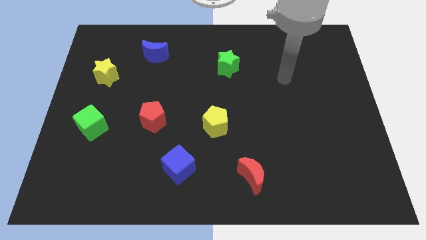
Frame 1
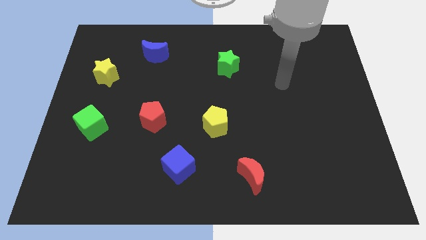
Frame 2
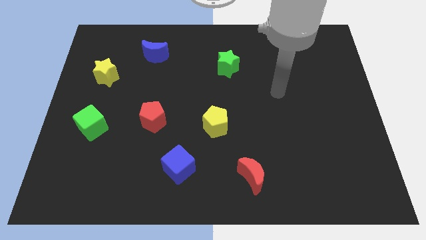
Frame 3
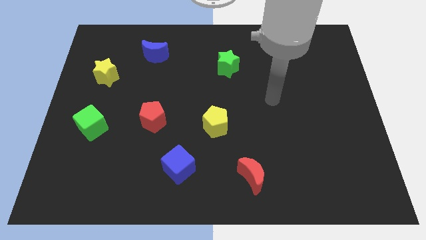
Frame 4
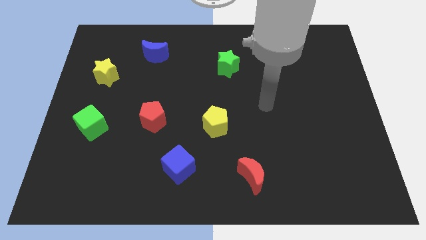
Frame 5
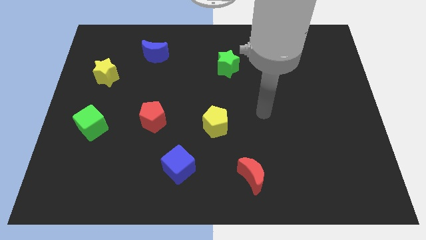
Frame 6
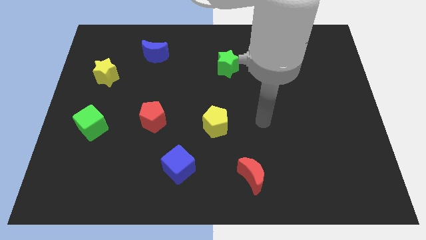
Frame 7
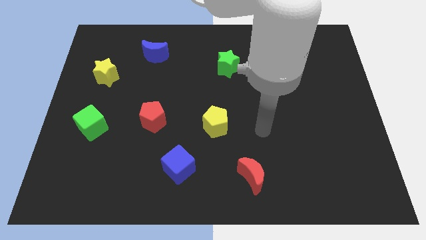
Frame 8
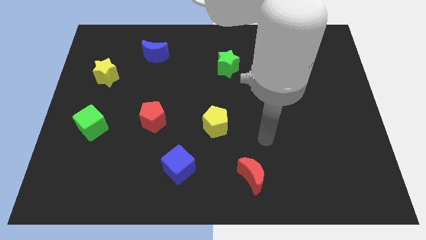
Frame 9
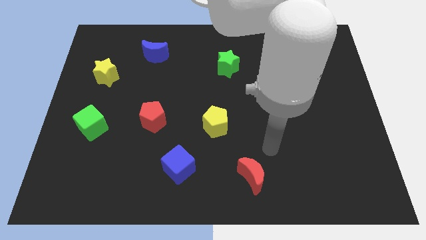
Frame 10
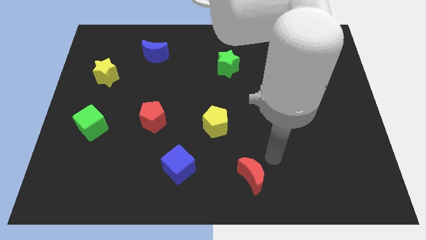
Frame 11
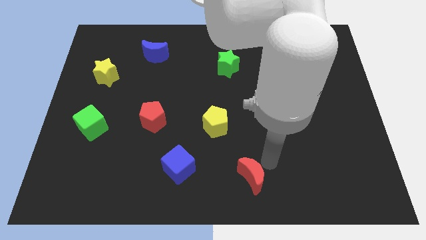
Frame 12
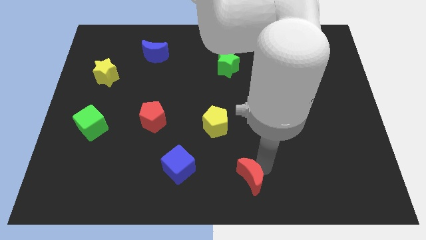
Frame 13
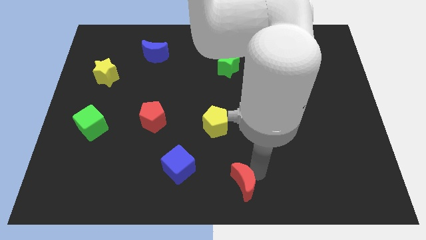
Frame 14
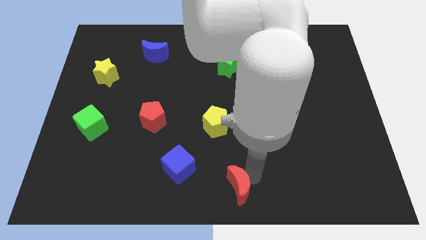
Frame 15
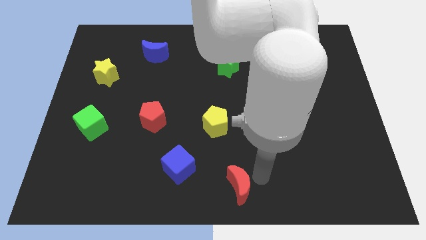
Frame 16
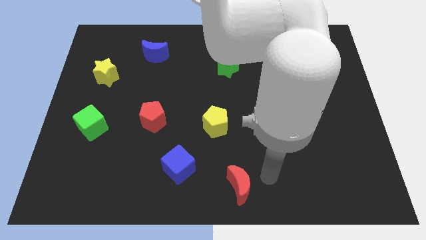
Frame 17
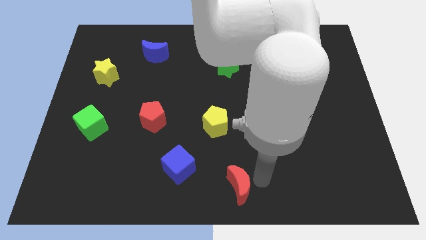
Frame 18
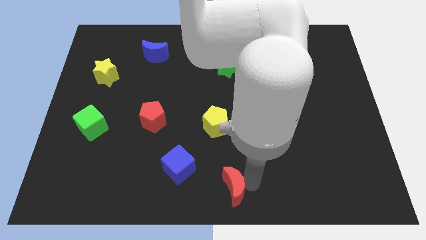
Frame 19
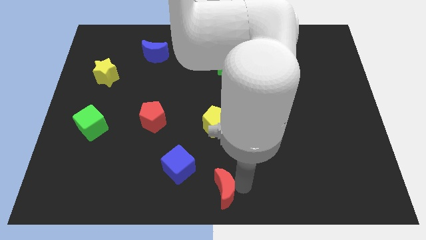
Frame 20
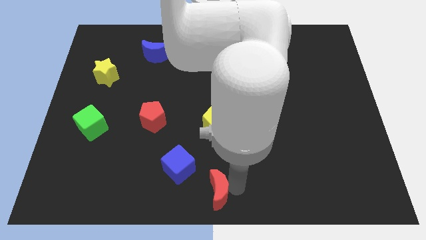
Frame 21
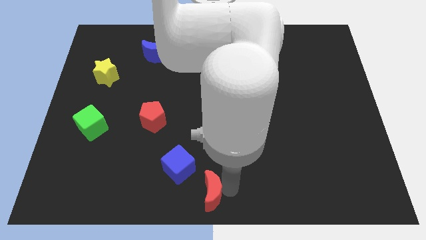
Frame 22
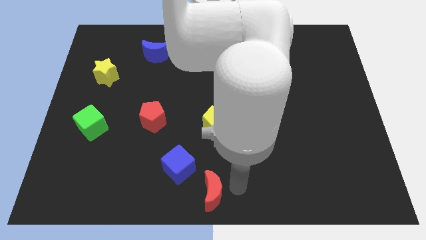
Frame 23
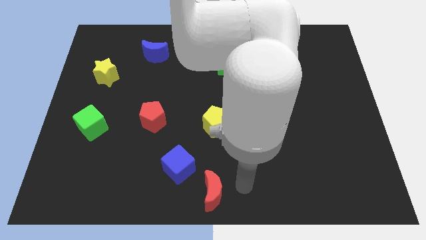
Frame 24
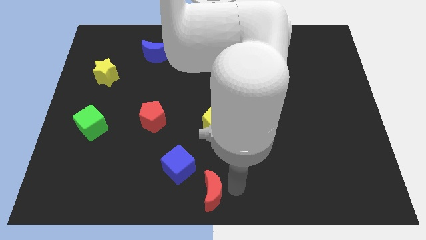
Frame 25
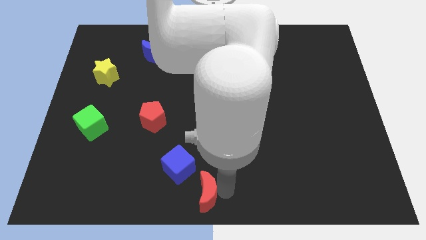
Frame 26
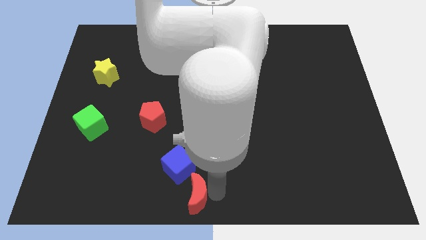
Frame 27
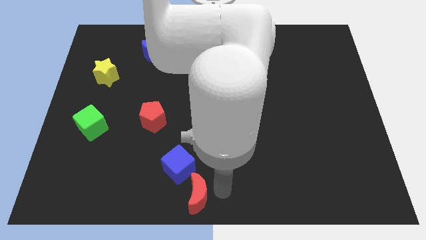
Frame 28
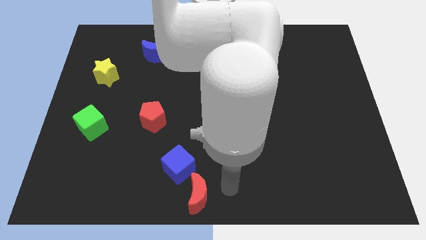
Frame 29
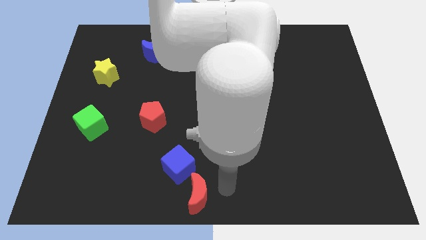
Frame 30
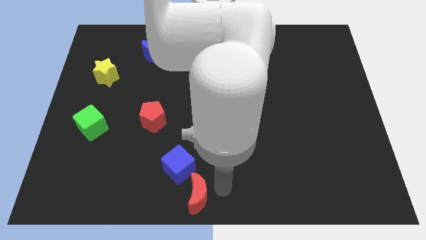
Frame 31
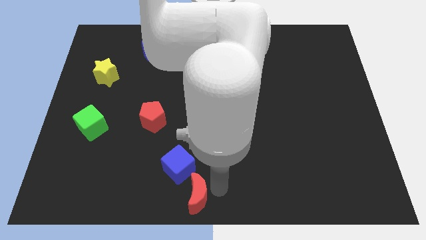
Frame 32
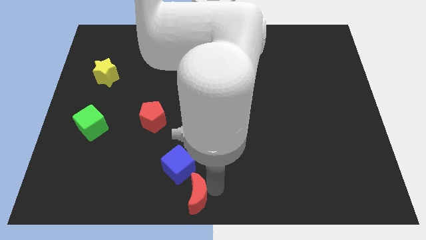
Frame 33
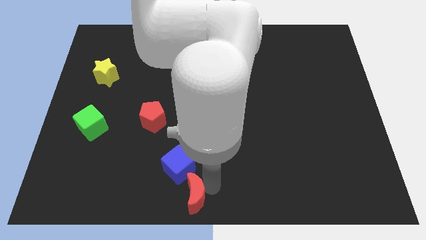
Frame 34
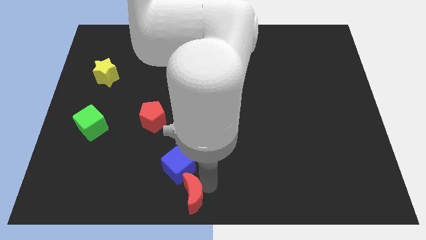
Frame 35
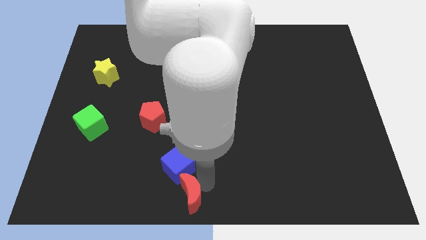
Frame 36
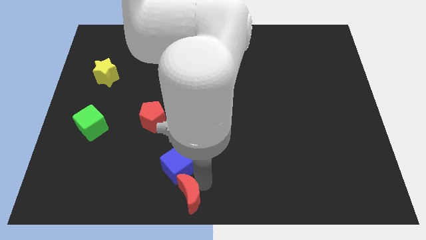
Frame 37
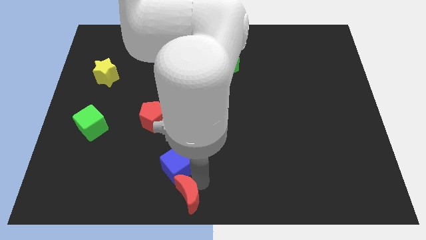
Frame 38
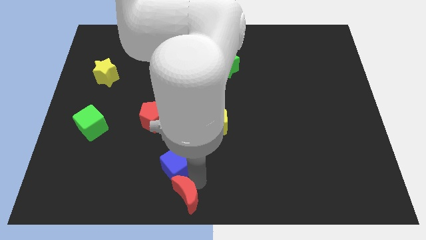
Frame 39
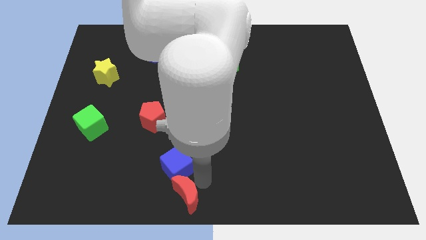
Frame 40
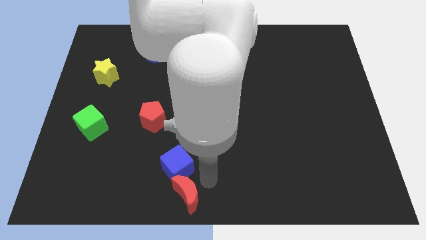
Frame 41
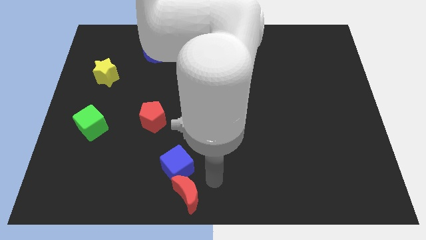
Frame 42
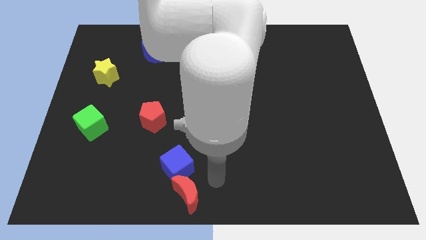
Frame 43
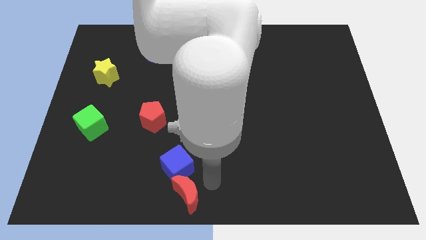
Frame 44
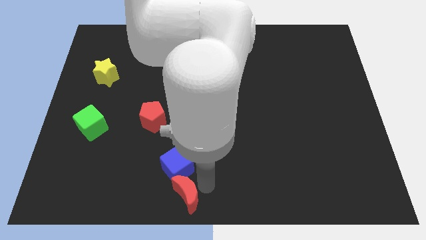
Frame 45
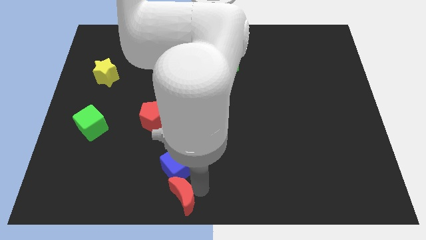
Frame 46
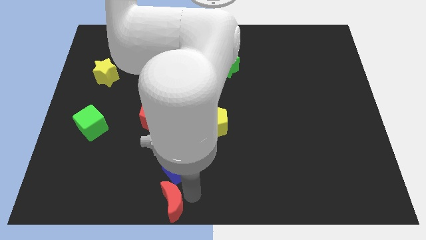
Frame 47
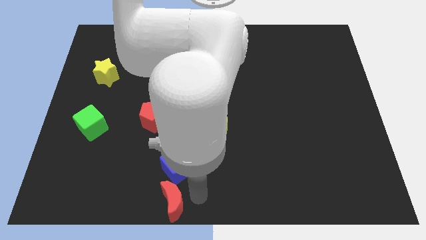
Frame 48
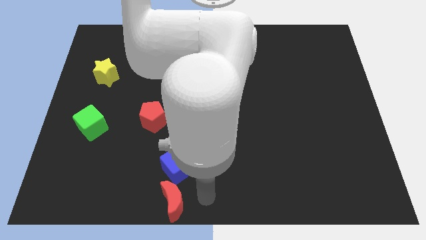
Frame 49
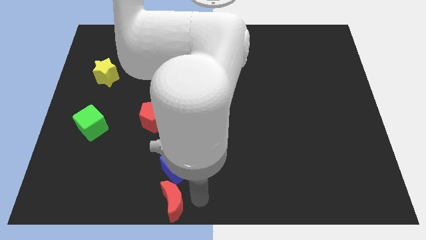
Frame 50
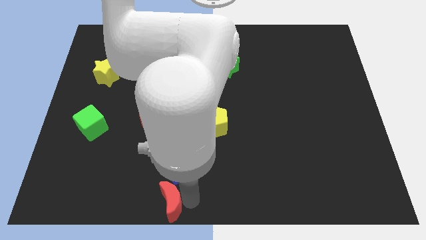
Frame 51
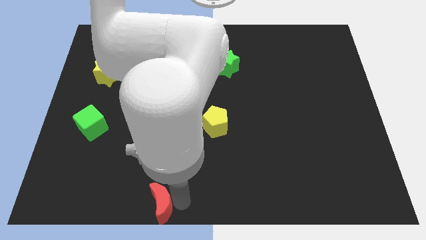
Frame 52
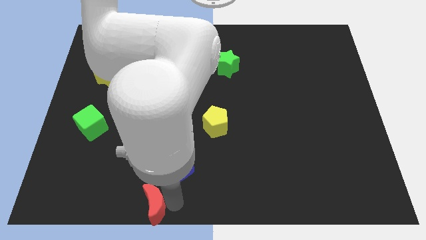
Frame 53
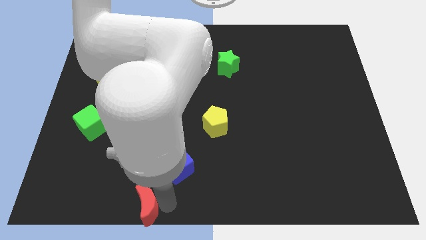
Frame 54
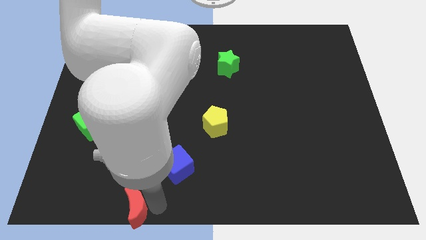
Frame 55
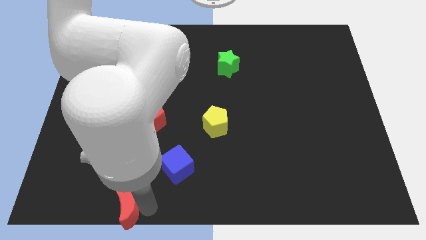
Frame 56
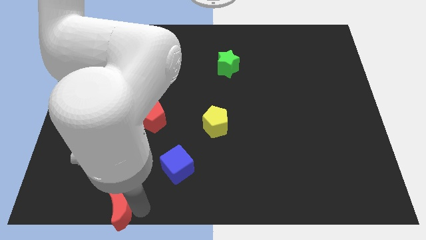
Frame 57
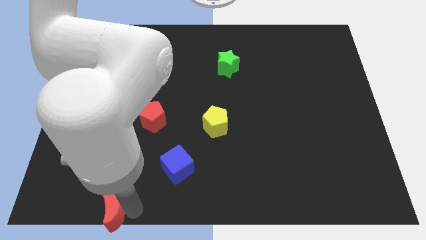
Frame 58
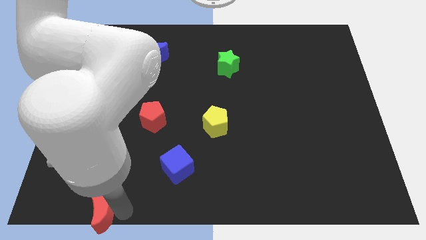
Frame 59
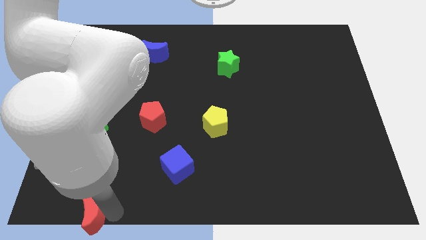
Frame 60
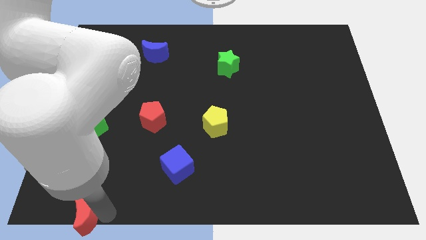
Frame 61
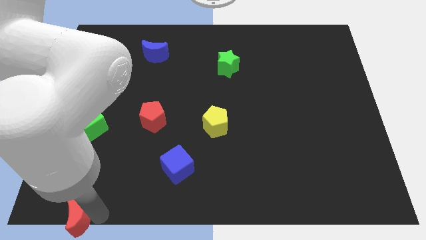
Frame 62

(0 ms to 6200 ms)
move the red moon to the bottom left corner
